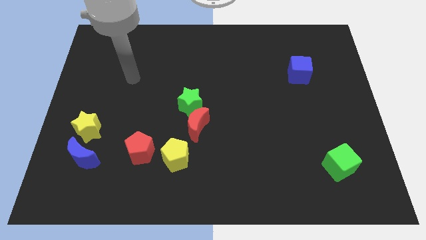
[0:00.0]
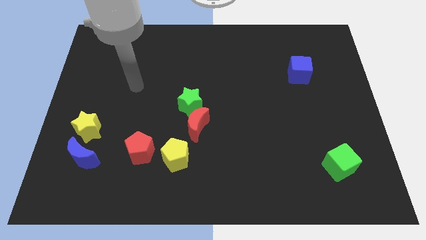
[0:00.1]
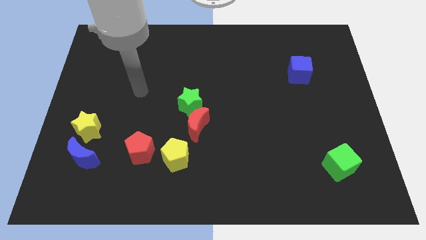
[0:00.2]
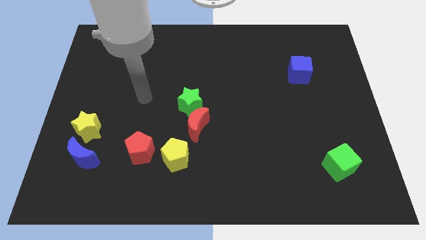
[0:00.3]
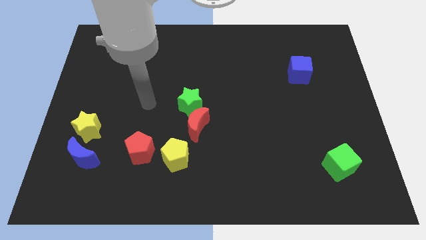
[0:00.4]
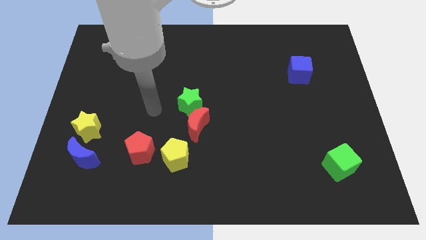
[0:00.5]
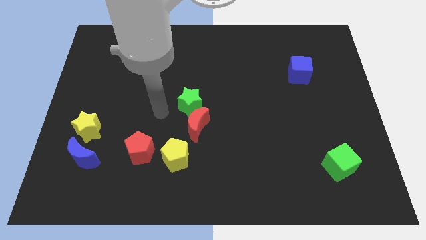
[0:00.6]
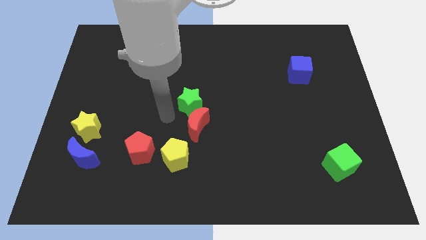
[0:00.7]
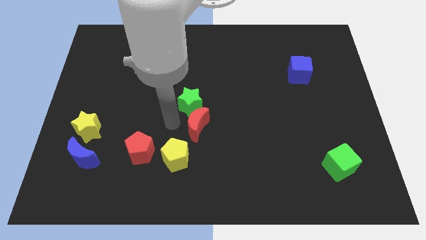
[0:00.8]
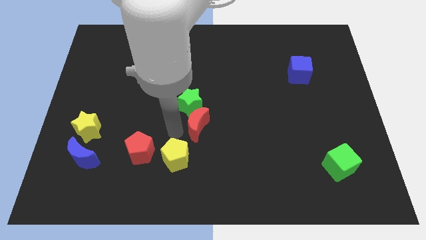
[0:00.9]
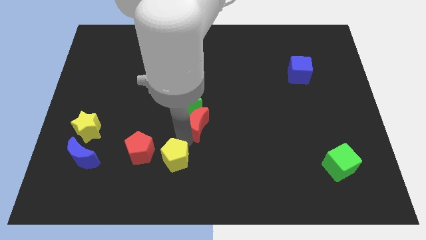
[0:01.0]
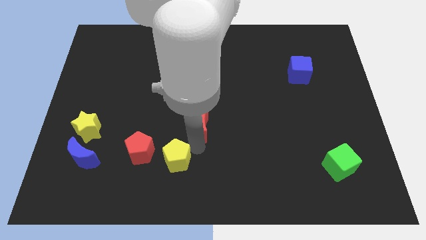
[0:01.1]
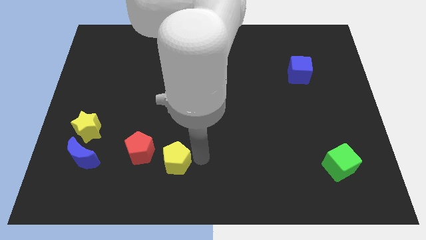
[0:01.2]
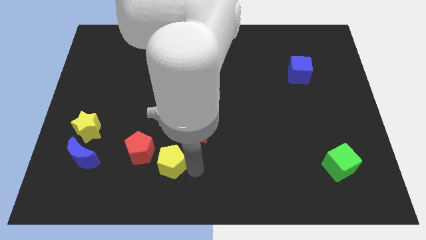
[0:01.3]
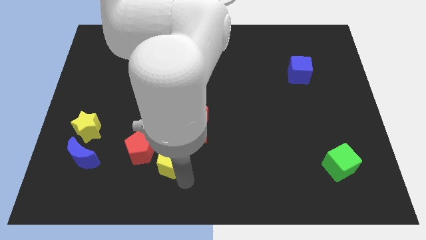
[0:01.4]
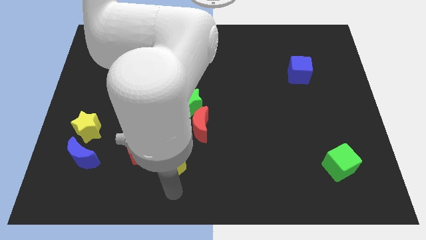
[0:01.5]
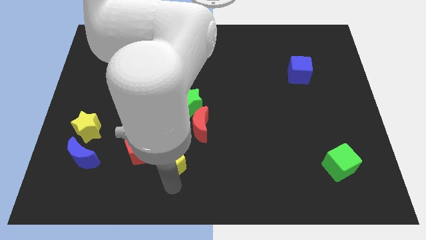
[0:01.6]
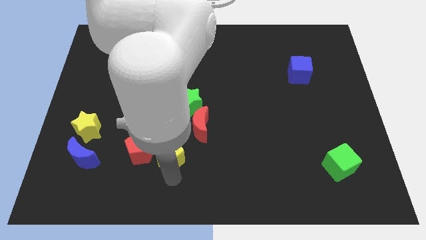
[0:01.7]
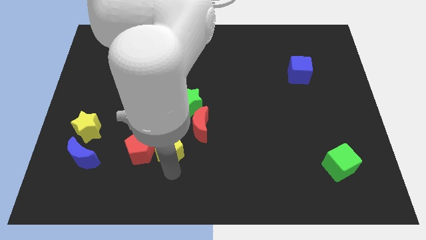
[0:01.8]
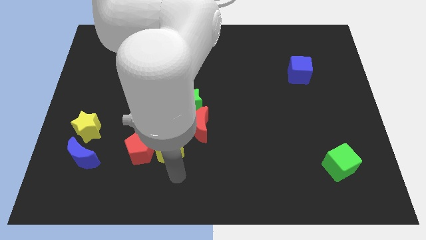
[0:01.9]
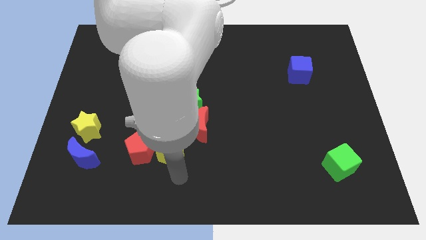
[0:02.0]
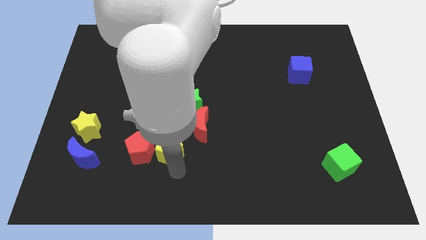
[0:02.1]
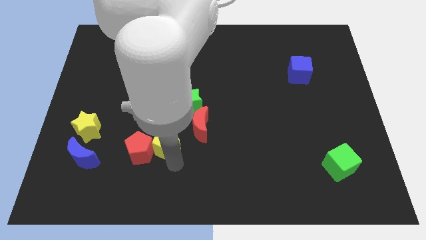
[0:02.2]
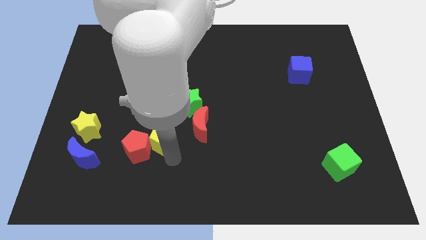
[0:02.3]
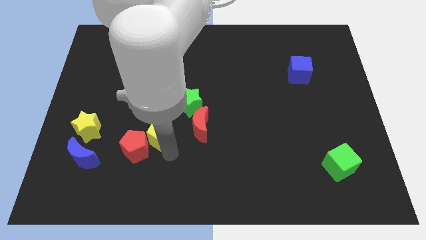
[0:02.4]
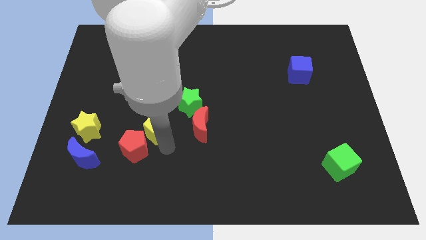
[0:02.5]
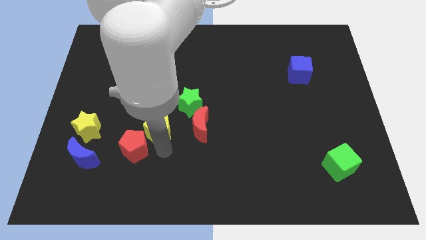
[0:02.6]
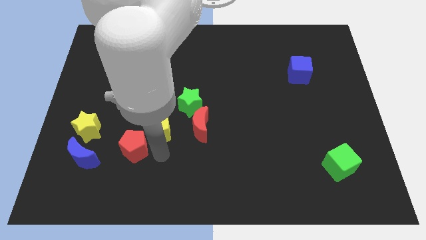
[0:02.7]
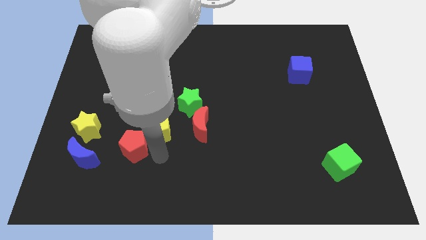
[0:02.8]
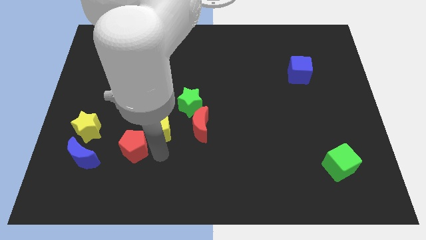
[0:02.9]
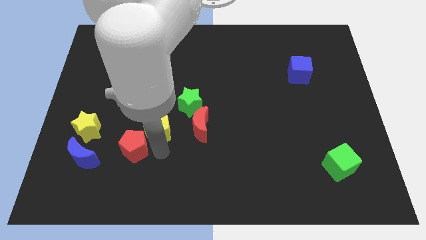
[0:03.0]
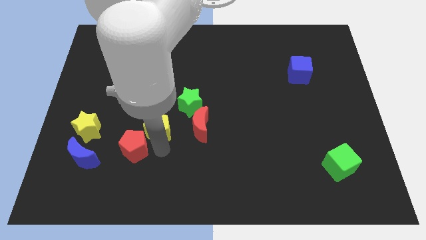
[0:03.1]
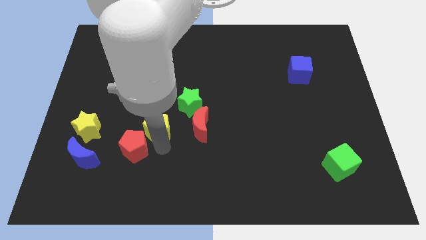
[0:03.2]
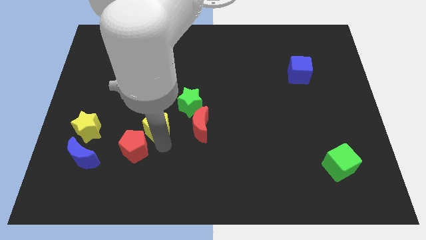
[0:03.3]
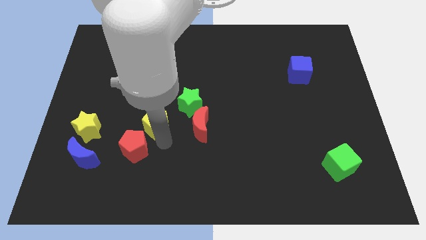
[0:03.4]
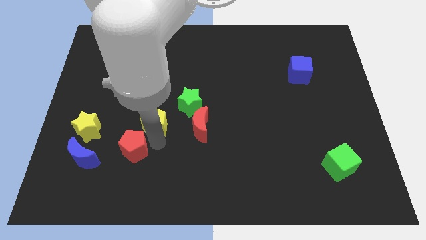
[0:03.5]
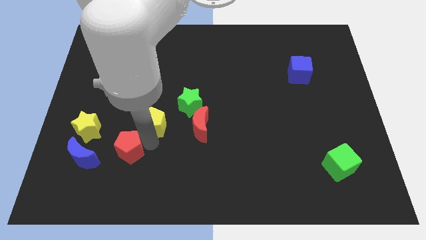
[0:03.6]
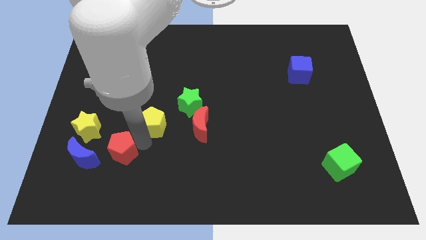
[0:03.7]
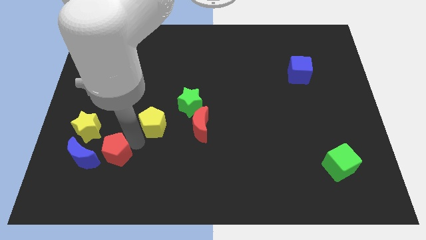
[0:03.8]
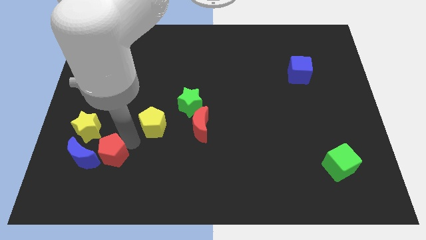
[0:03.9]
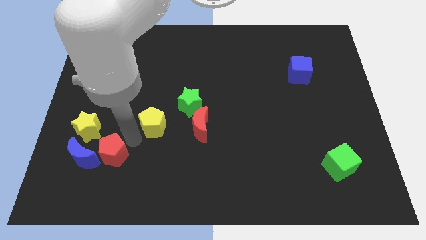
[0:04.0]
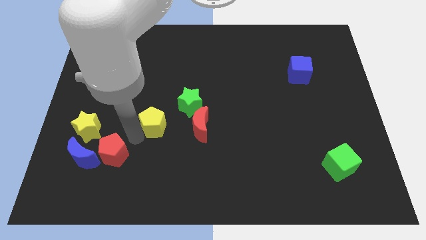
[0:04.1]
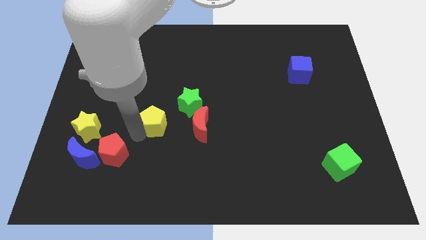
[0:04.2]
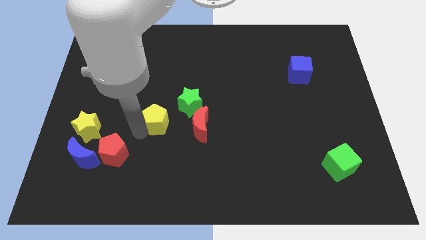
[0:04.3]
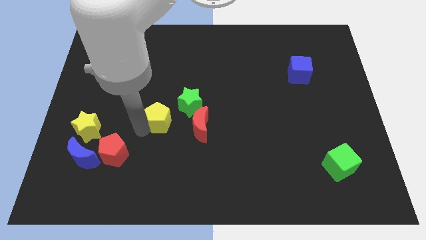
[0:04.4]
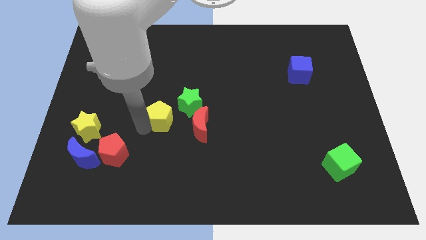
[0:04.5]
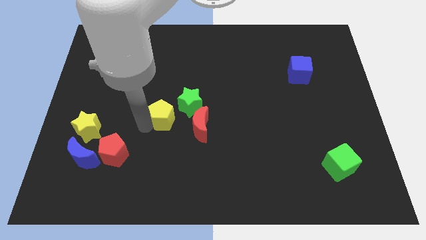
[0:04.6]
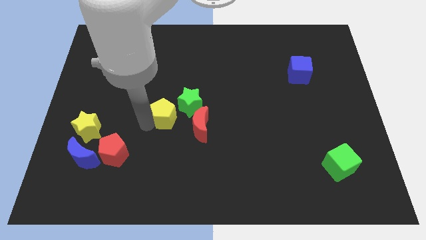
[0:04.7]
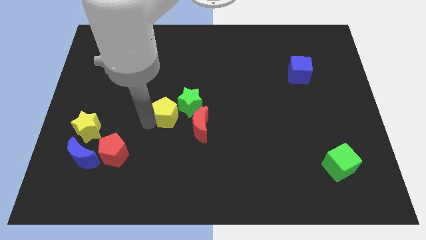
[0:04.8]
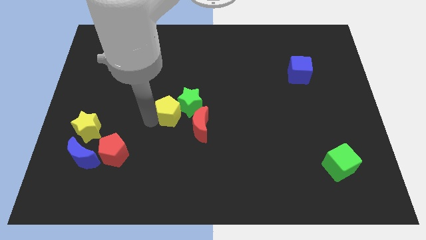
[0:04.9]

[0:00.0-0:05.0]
push the yellow pentagon close to the green star

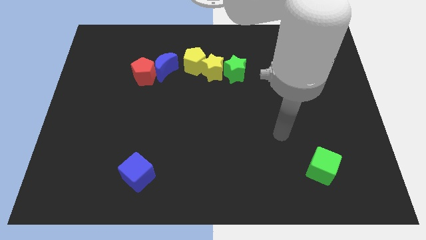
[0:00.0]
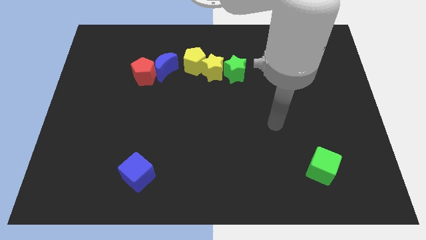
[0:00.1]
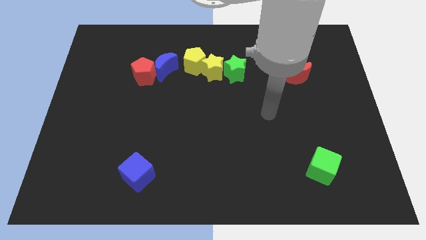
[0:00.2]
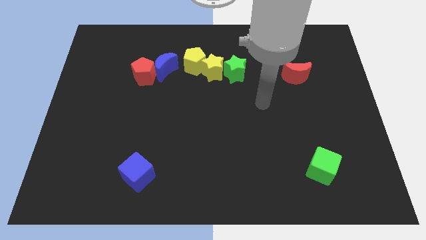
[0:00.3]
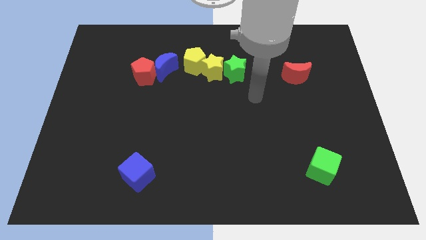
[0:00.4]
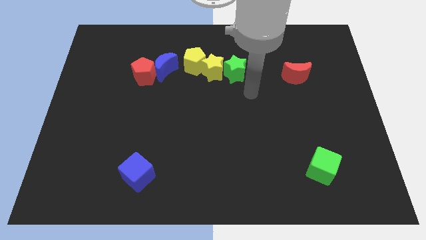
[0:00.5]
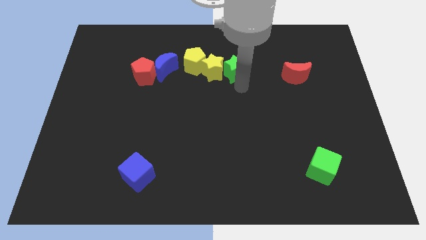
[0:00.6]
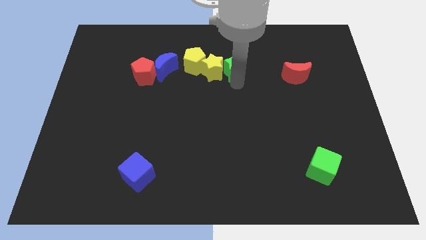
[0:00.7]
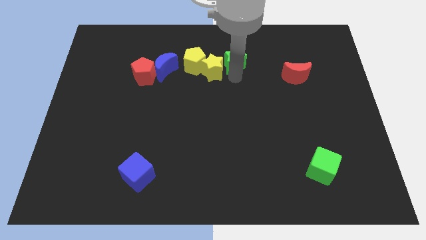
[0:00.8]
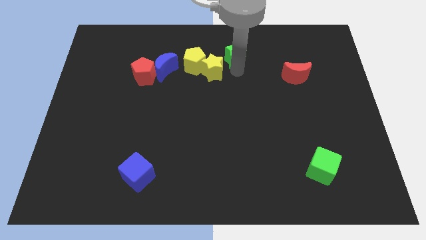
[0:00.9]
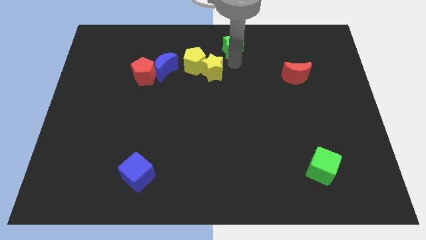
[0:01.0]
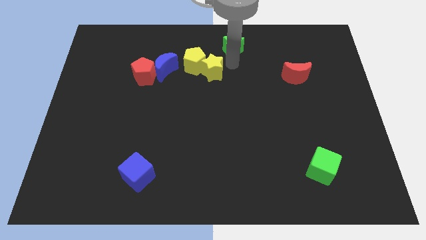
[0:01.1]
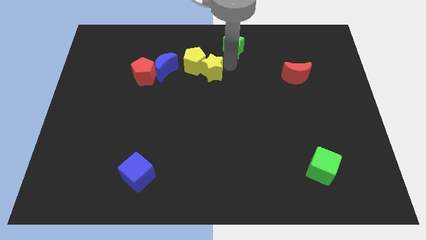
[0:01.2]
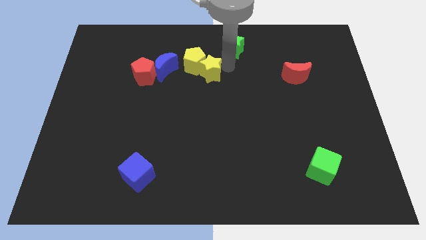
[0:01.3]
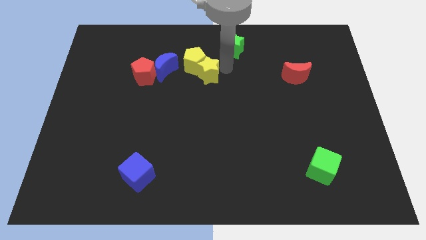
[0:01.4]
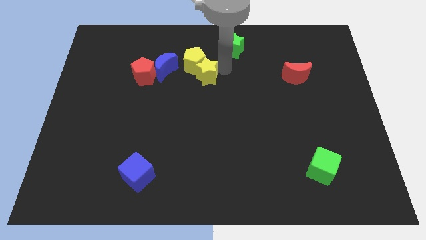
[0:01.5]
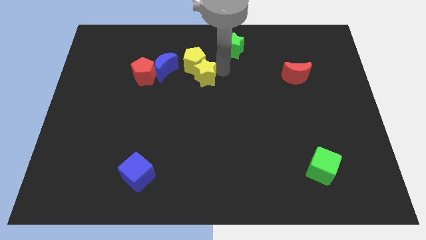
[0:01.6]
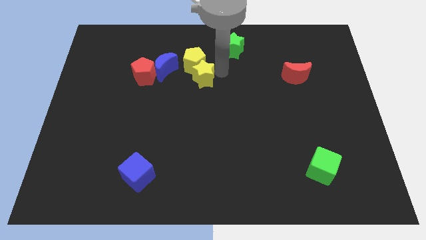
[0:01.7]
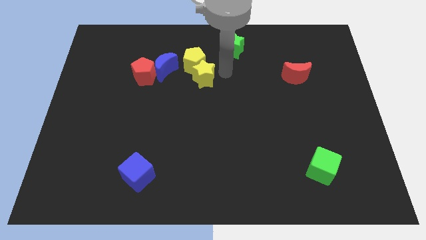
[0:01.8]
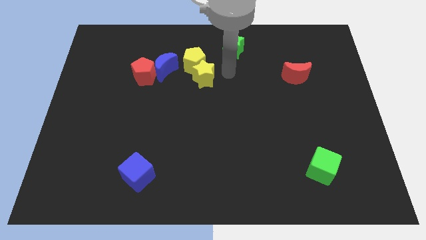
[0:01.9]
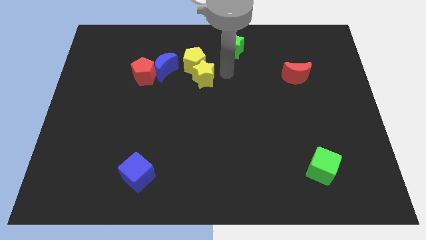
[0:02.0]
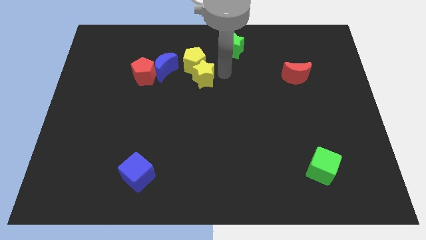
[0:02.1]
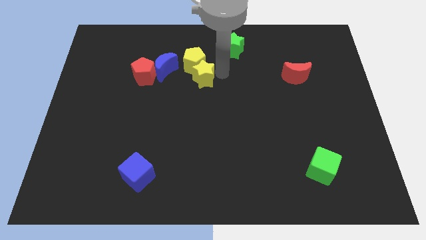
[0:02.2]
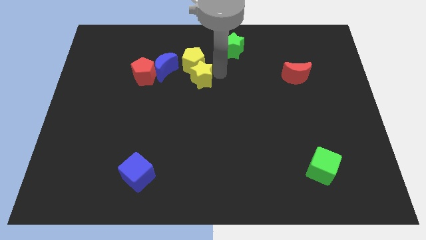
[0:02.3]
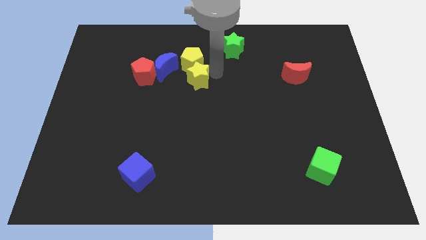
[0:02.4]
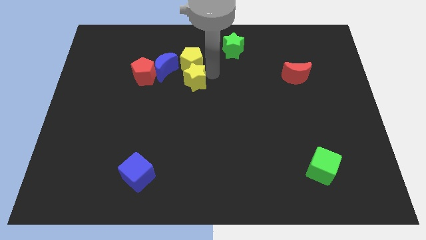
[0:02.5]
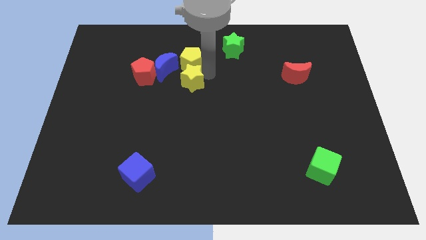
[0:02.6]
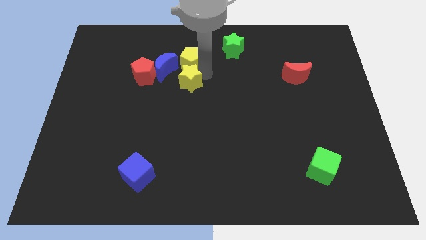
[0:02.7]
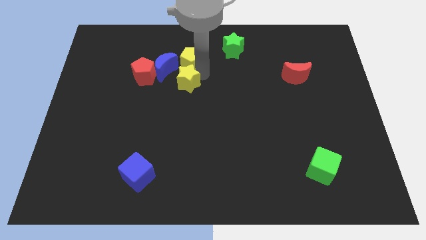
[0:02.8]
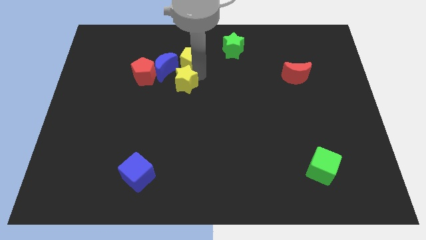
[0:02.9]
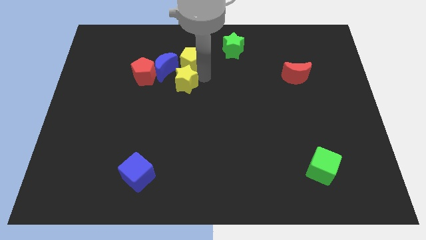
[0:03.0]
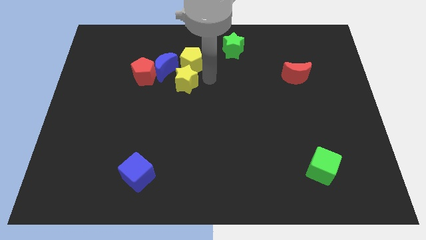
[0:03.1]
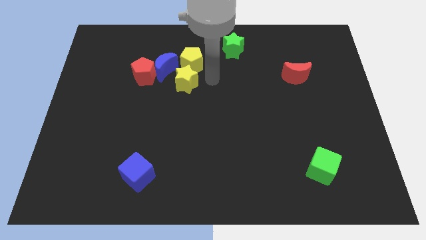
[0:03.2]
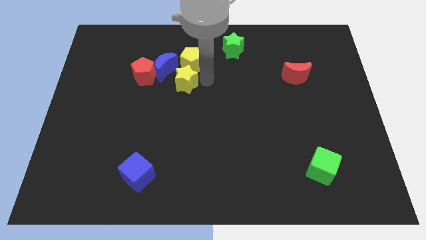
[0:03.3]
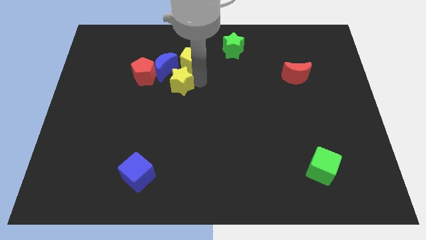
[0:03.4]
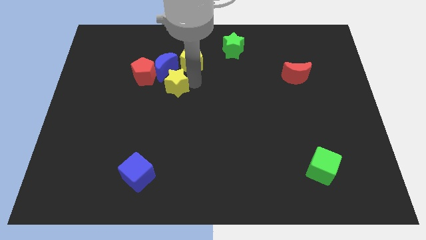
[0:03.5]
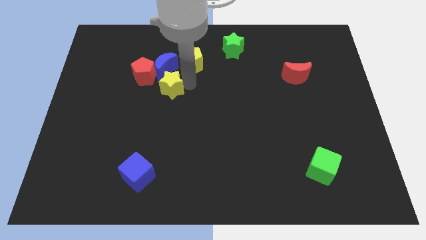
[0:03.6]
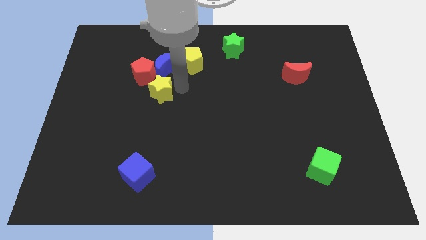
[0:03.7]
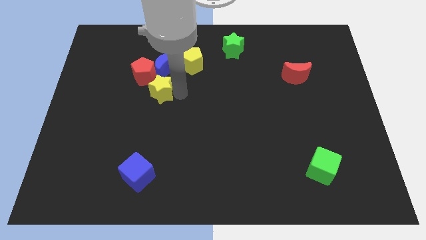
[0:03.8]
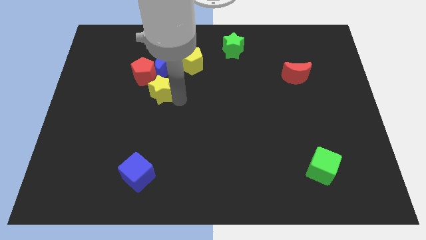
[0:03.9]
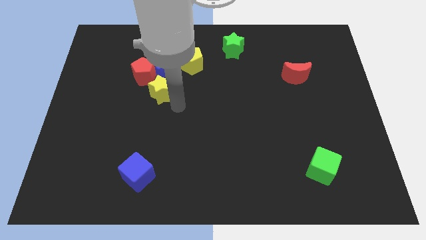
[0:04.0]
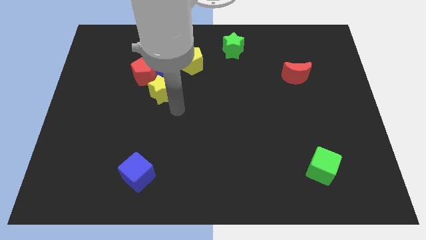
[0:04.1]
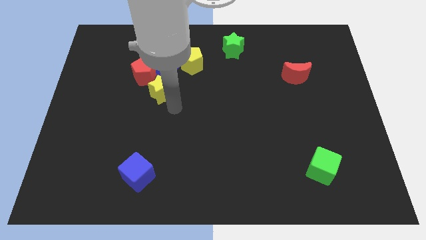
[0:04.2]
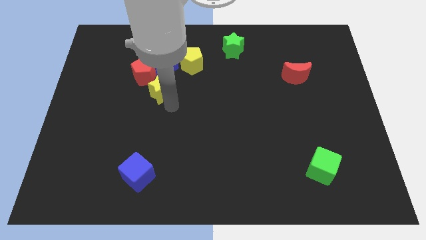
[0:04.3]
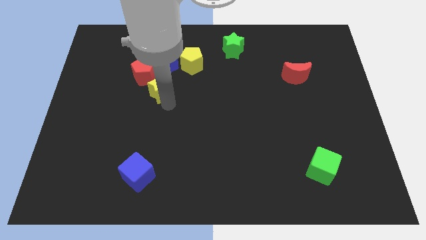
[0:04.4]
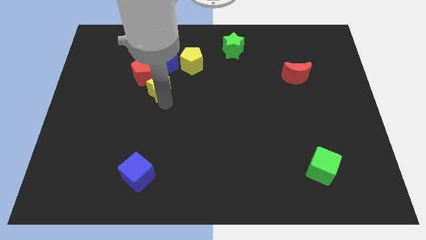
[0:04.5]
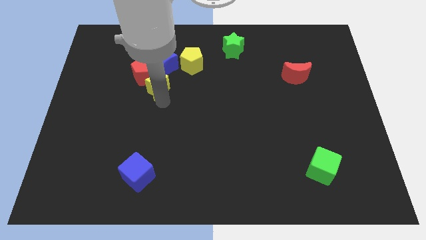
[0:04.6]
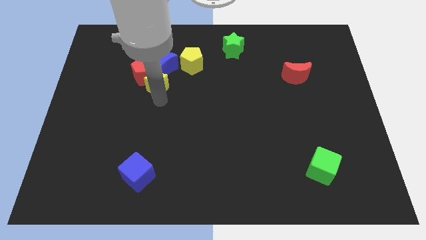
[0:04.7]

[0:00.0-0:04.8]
move the yellow star close to the red pentagon
